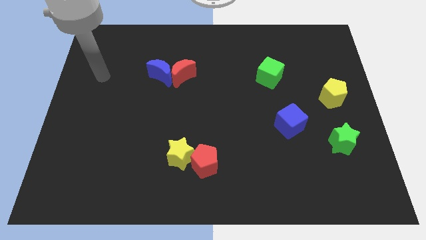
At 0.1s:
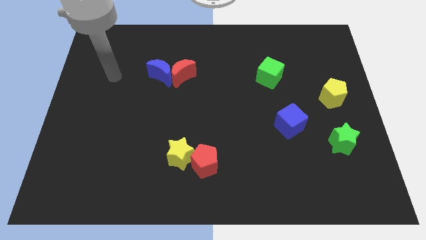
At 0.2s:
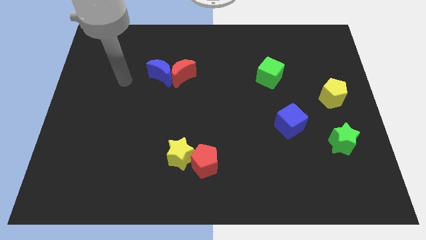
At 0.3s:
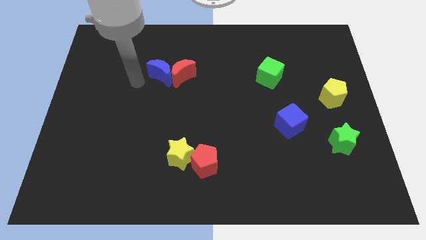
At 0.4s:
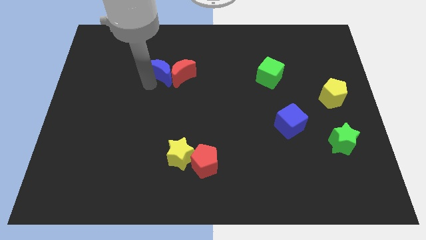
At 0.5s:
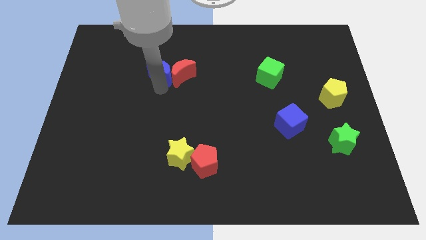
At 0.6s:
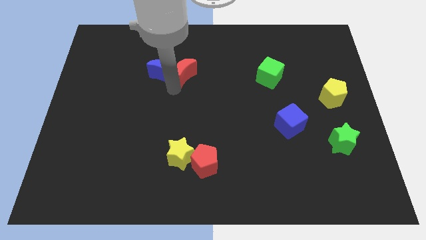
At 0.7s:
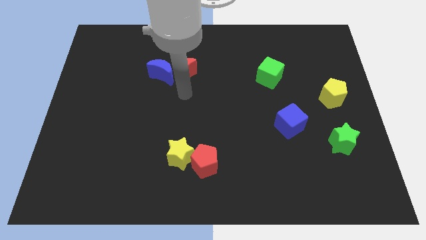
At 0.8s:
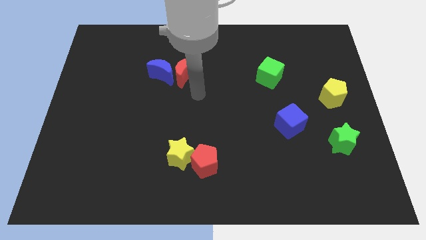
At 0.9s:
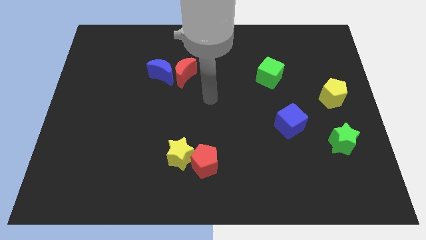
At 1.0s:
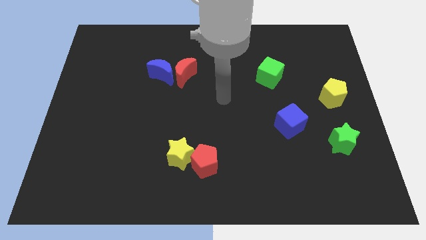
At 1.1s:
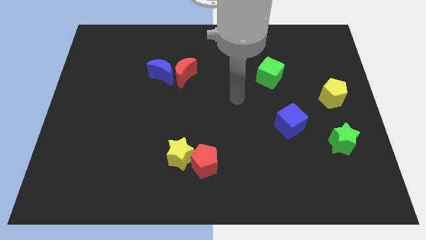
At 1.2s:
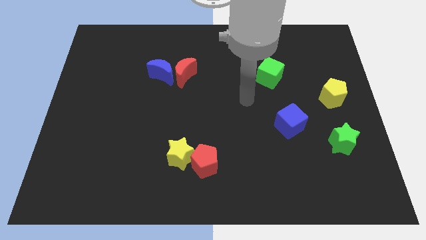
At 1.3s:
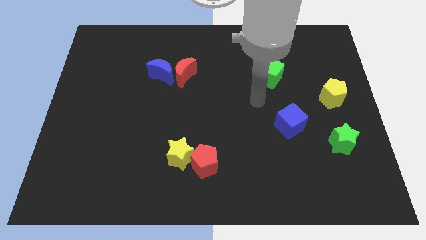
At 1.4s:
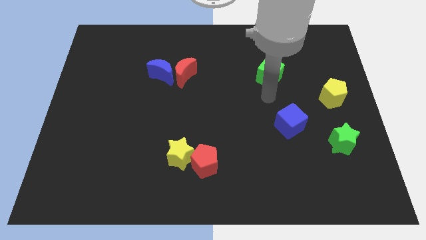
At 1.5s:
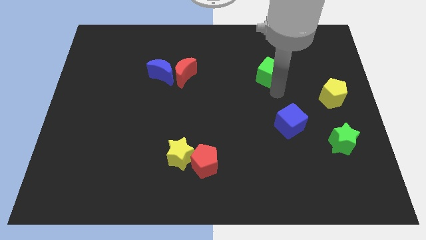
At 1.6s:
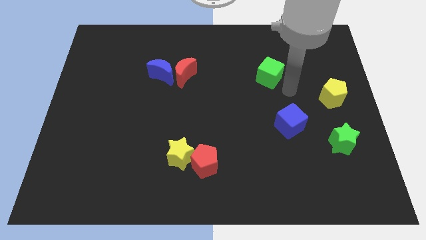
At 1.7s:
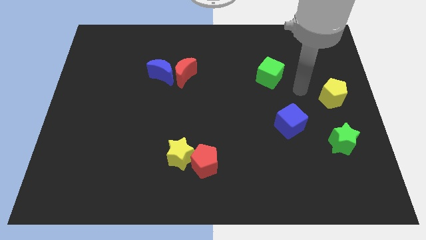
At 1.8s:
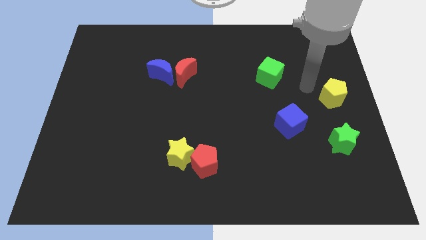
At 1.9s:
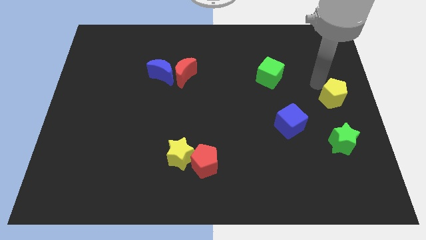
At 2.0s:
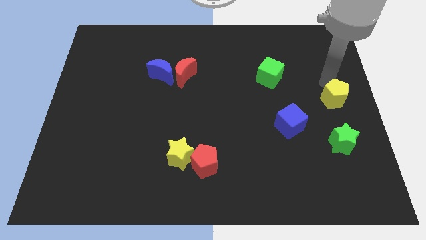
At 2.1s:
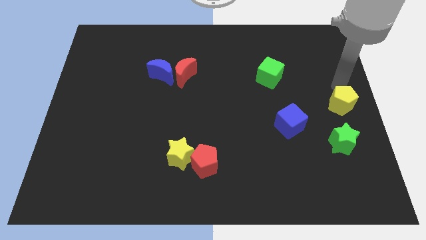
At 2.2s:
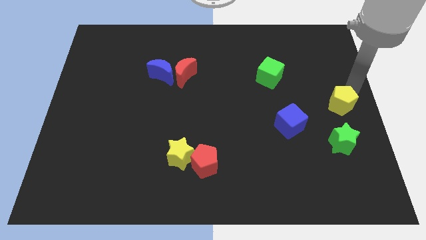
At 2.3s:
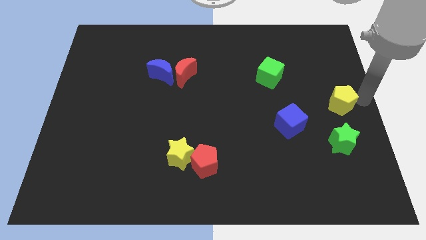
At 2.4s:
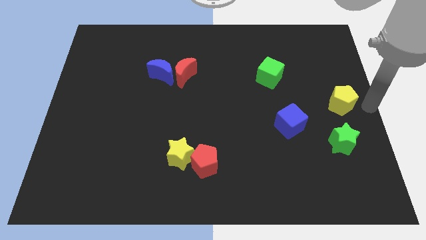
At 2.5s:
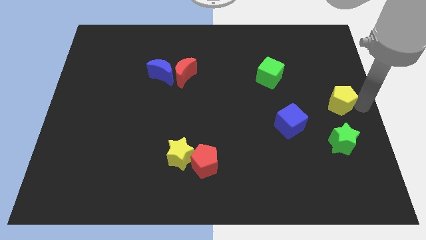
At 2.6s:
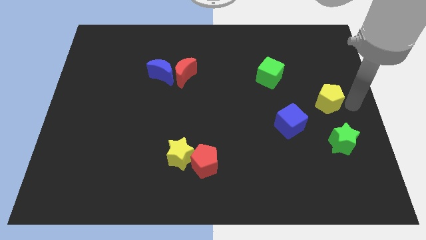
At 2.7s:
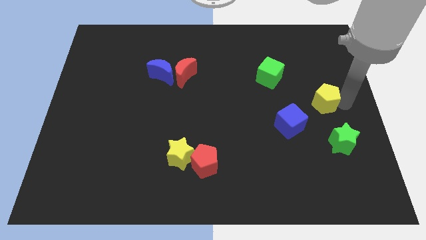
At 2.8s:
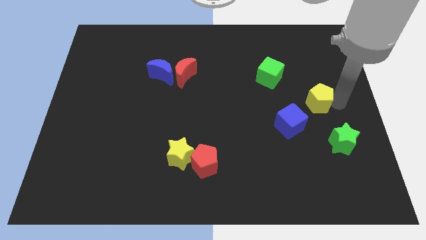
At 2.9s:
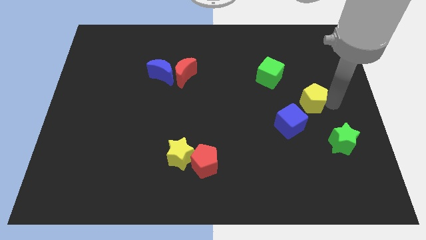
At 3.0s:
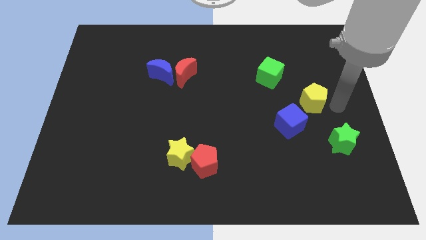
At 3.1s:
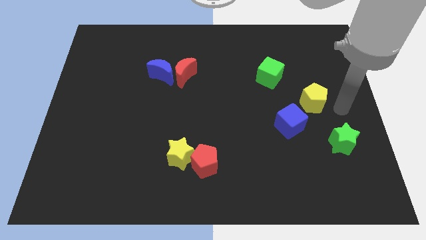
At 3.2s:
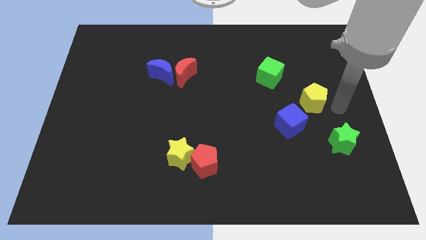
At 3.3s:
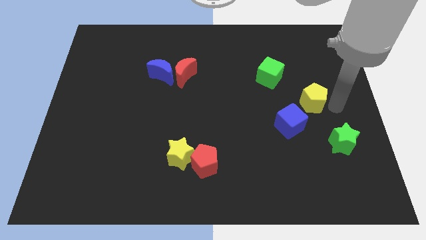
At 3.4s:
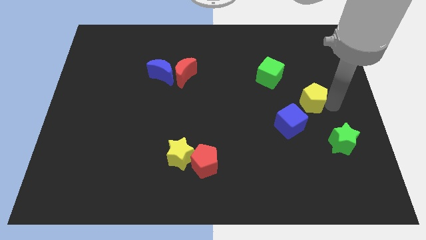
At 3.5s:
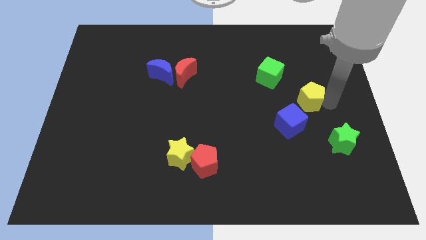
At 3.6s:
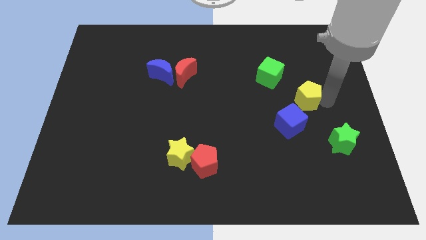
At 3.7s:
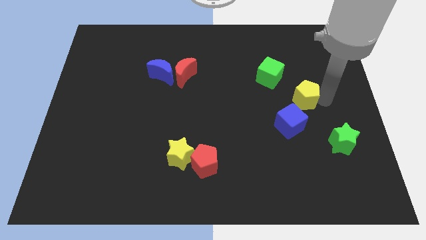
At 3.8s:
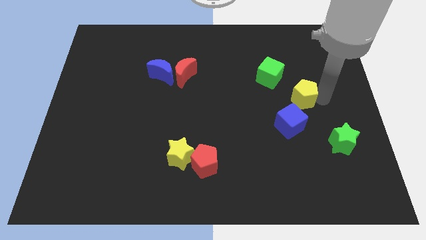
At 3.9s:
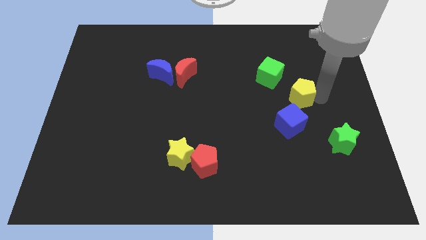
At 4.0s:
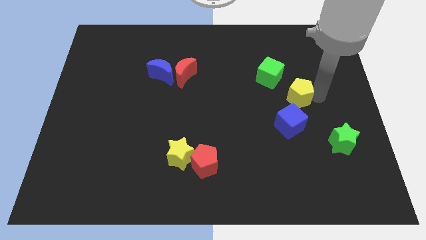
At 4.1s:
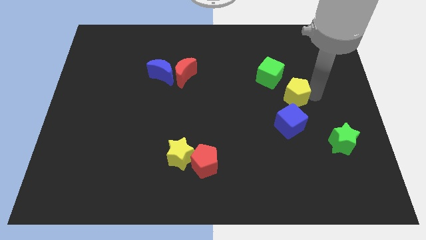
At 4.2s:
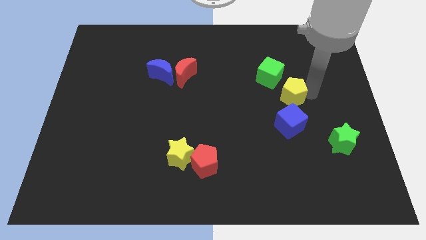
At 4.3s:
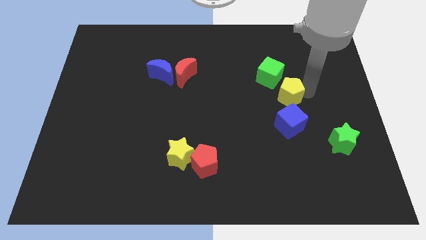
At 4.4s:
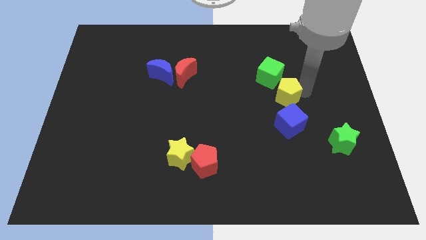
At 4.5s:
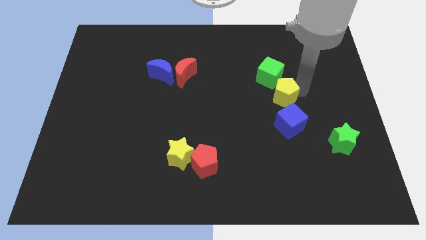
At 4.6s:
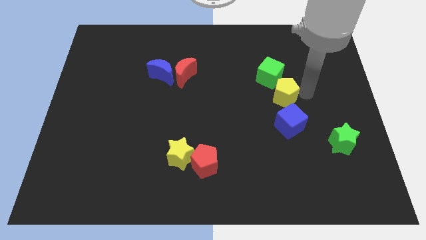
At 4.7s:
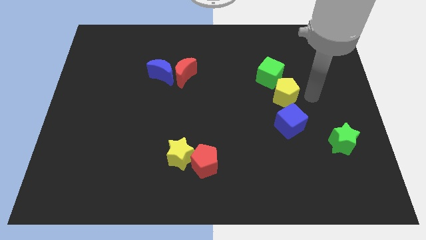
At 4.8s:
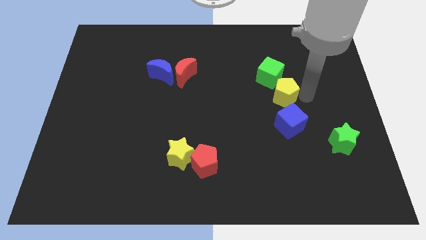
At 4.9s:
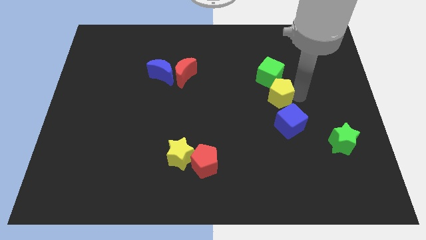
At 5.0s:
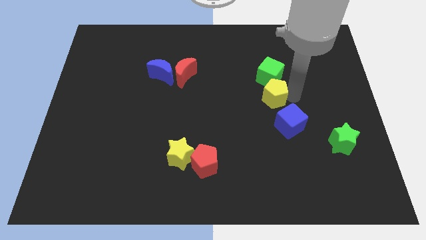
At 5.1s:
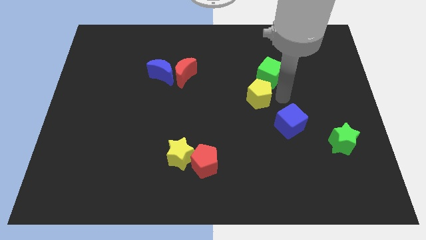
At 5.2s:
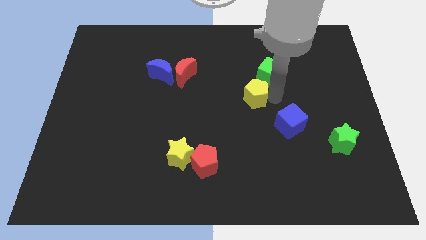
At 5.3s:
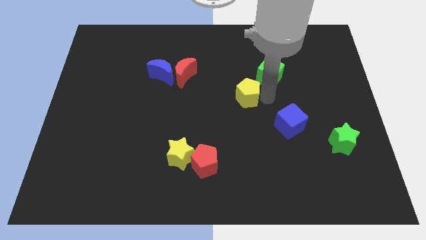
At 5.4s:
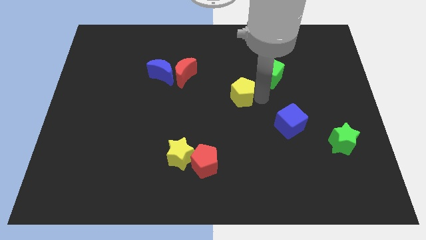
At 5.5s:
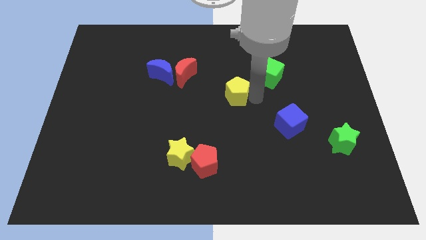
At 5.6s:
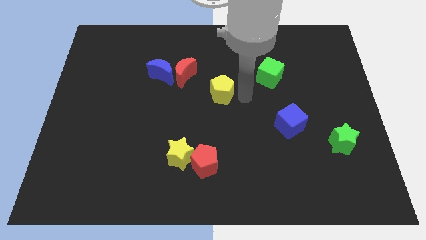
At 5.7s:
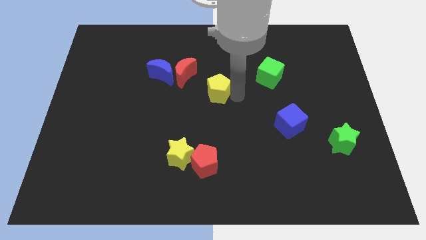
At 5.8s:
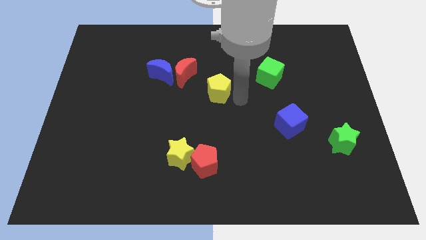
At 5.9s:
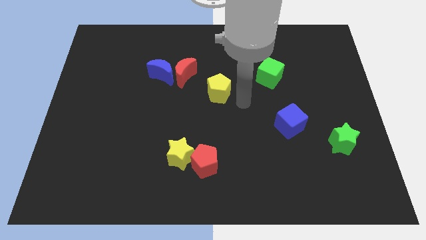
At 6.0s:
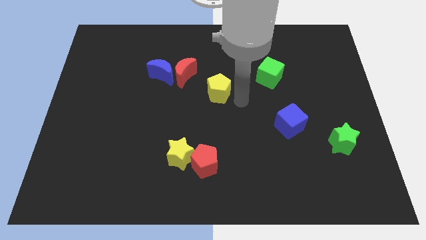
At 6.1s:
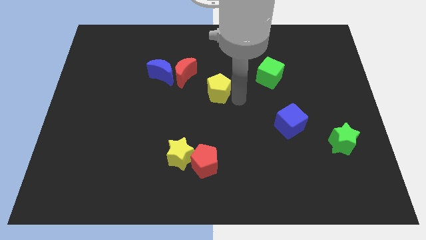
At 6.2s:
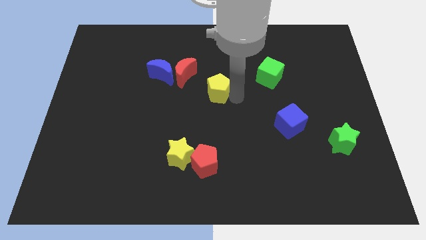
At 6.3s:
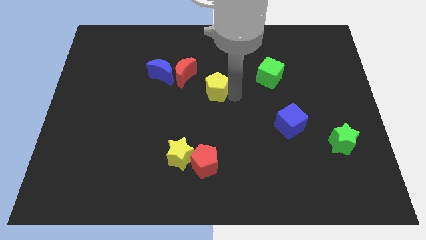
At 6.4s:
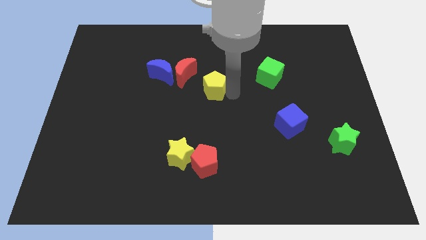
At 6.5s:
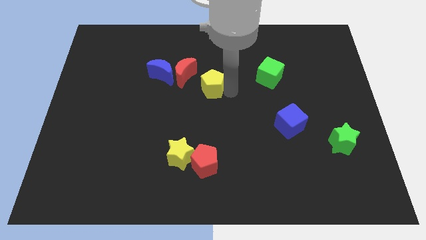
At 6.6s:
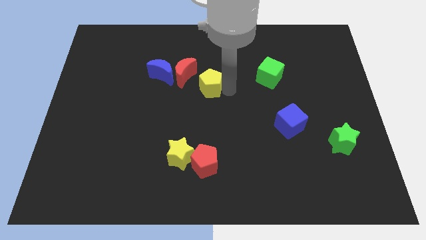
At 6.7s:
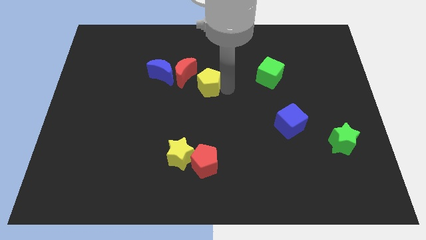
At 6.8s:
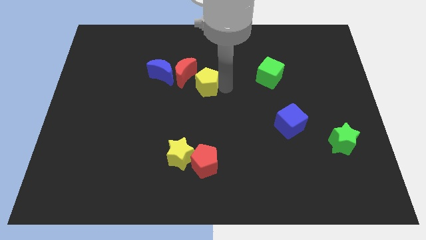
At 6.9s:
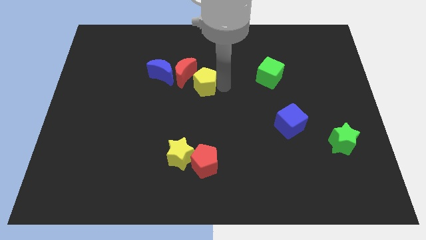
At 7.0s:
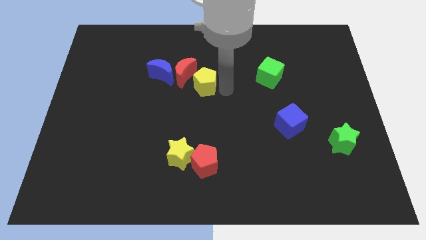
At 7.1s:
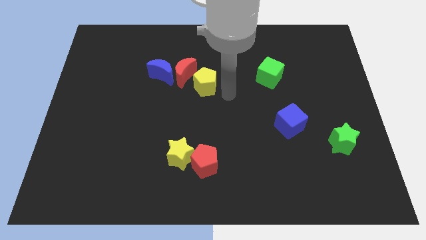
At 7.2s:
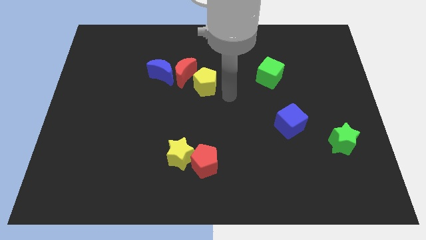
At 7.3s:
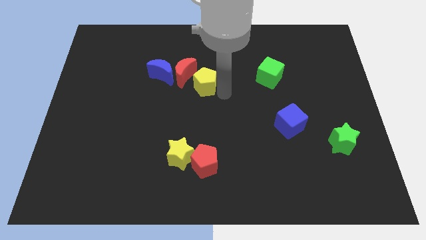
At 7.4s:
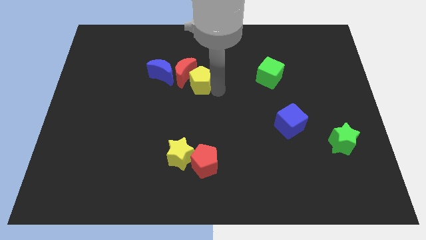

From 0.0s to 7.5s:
push the yellow pentagon towards the red moon
